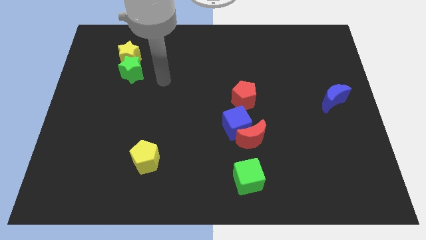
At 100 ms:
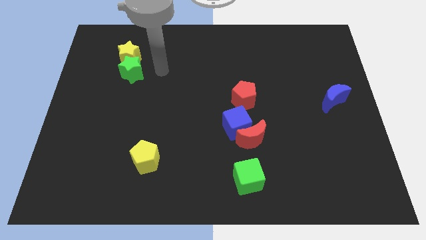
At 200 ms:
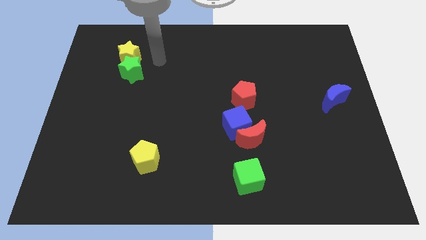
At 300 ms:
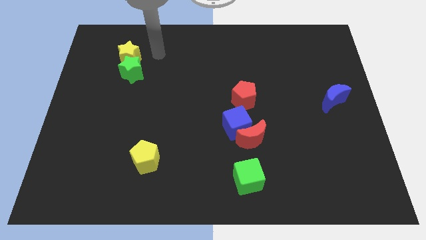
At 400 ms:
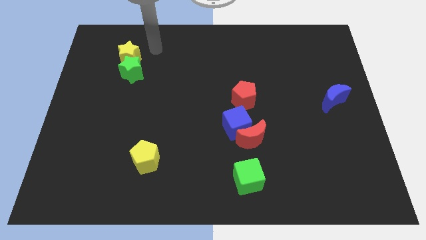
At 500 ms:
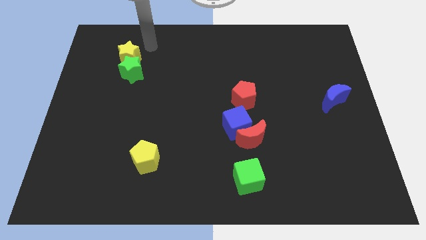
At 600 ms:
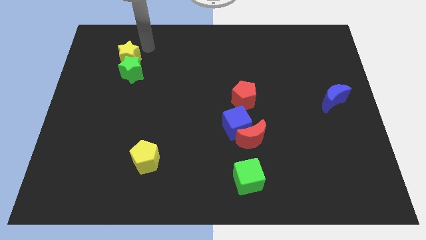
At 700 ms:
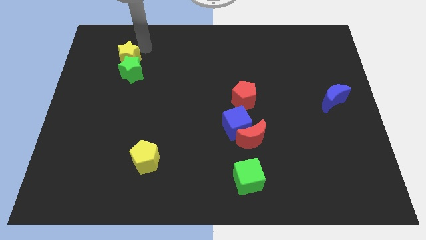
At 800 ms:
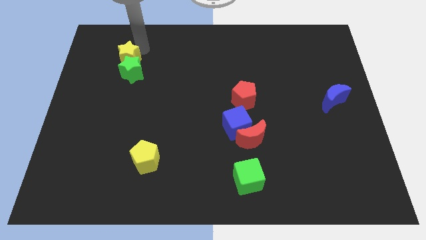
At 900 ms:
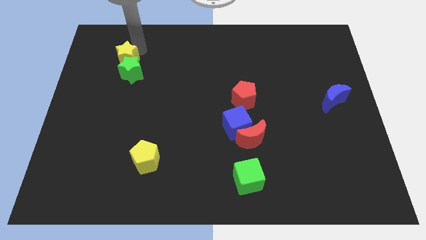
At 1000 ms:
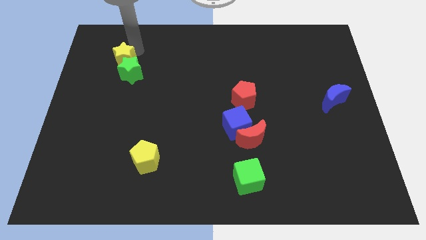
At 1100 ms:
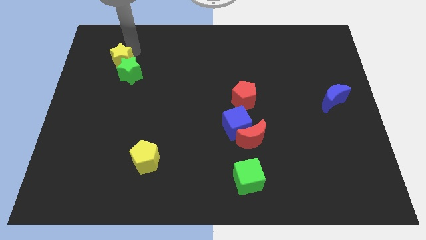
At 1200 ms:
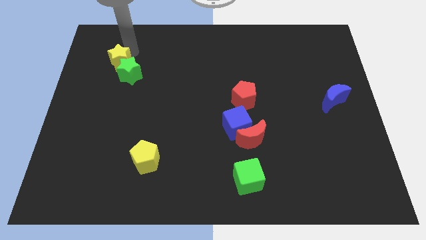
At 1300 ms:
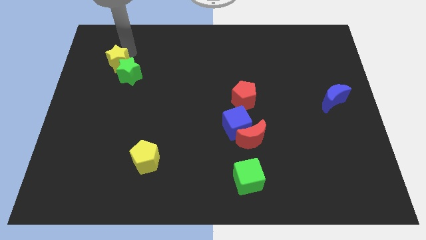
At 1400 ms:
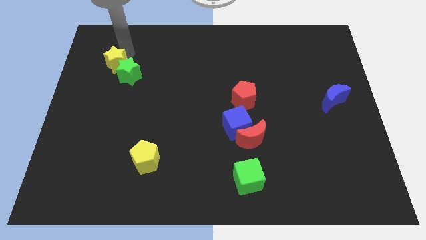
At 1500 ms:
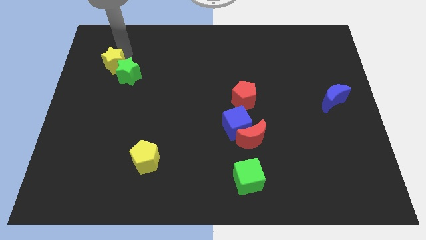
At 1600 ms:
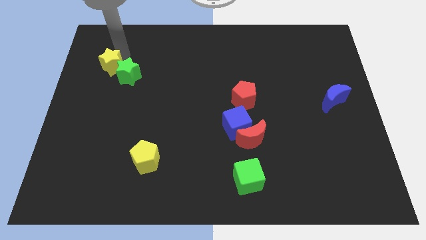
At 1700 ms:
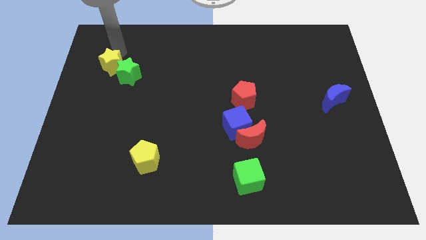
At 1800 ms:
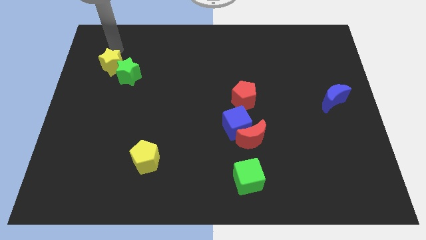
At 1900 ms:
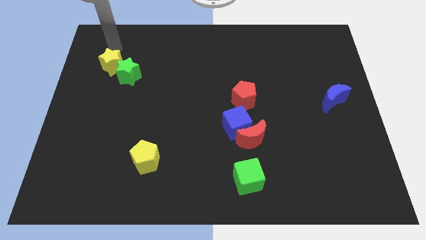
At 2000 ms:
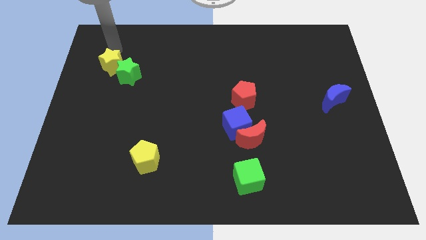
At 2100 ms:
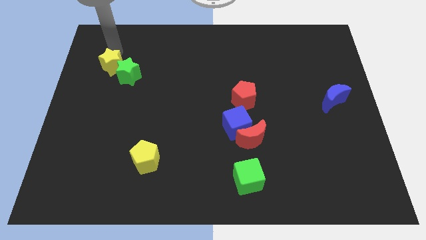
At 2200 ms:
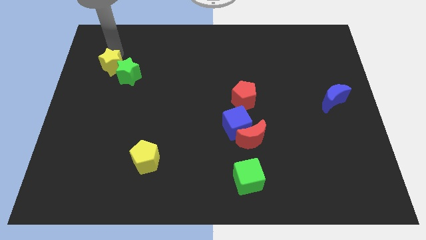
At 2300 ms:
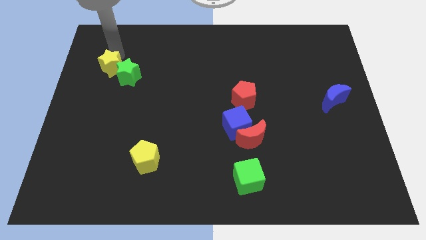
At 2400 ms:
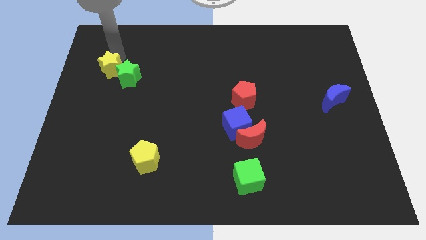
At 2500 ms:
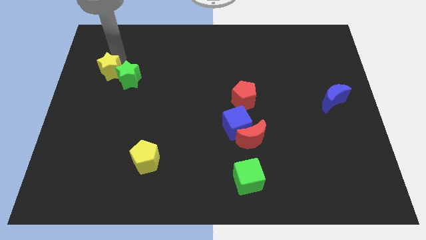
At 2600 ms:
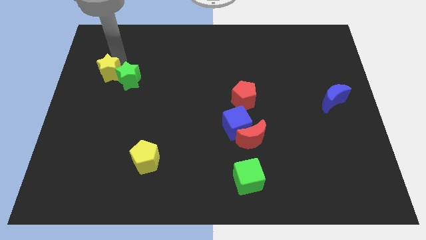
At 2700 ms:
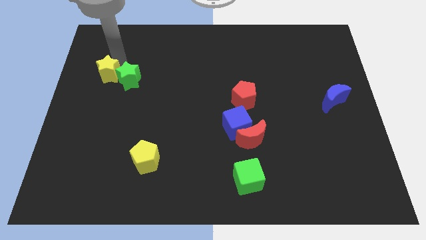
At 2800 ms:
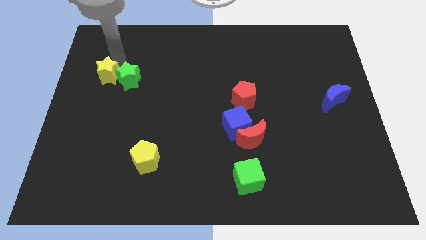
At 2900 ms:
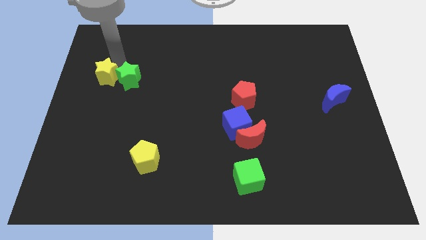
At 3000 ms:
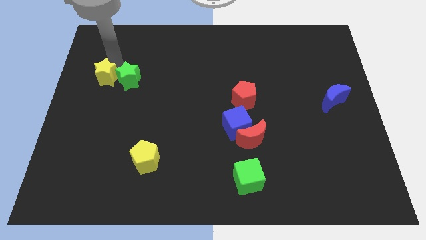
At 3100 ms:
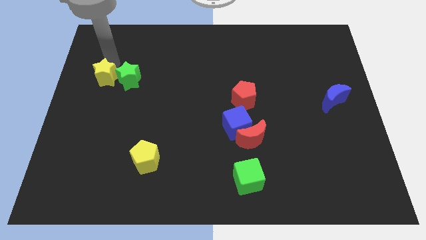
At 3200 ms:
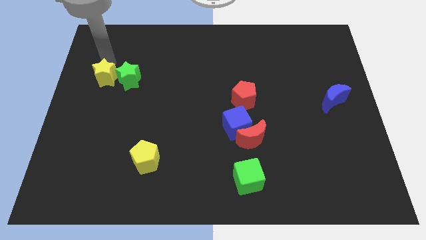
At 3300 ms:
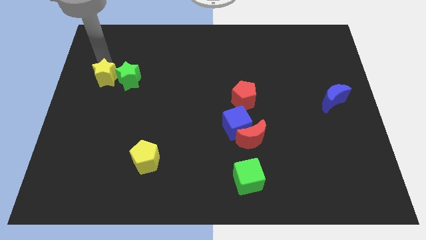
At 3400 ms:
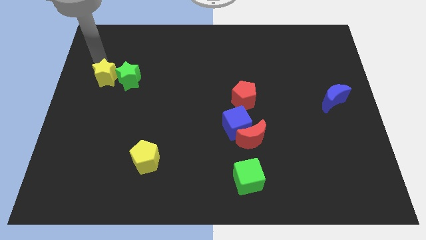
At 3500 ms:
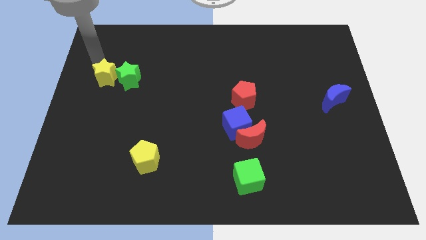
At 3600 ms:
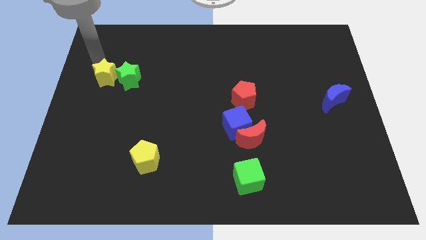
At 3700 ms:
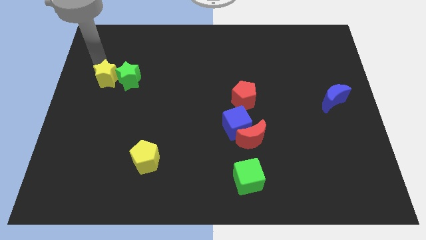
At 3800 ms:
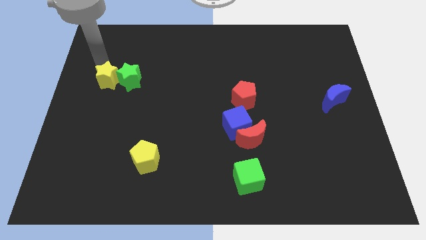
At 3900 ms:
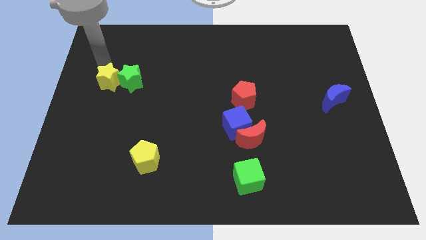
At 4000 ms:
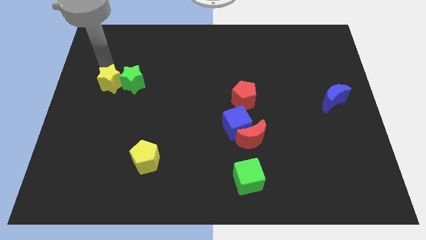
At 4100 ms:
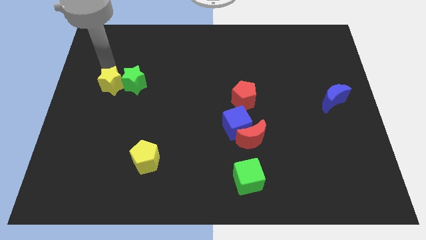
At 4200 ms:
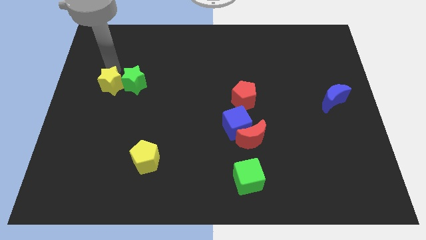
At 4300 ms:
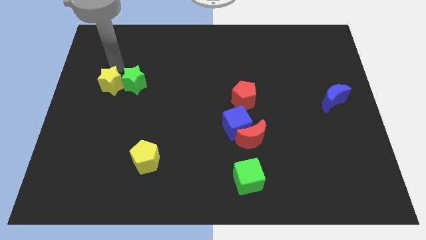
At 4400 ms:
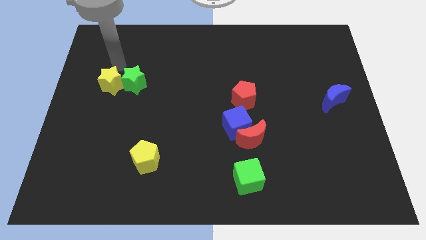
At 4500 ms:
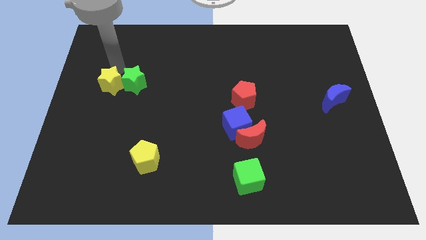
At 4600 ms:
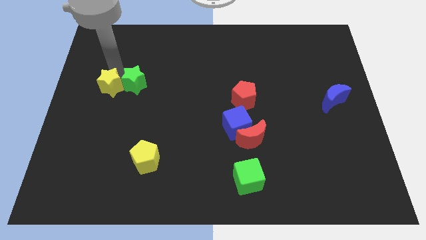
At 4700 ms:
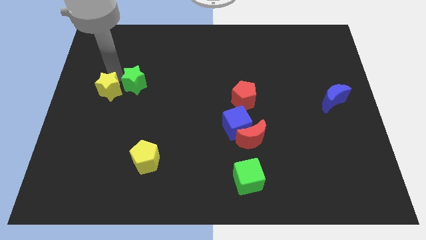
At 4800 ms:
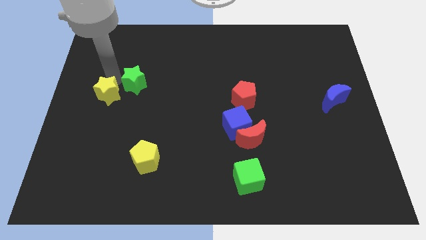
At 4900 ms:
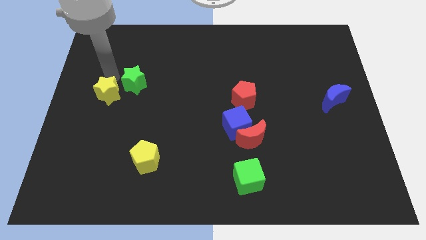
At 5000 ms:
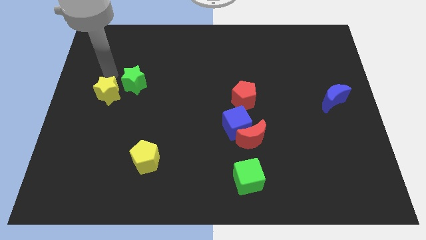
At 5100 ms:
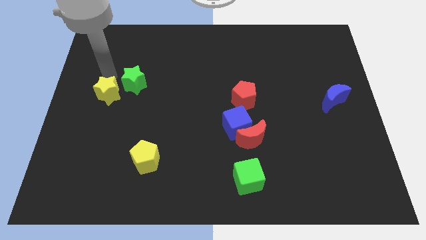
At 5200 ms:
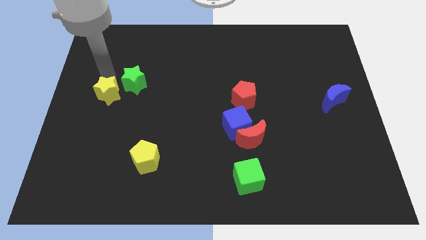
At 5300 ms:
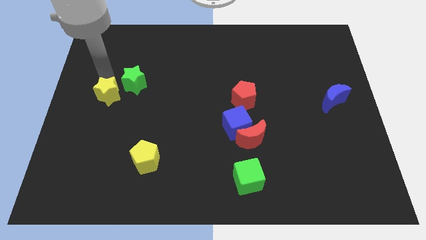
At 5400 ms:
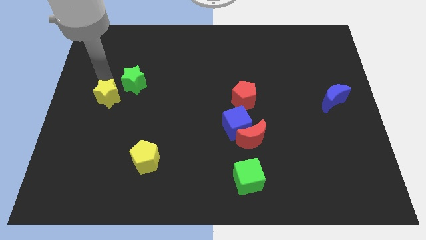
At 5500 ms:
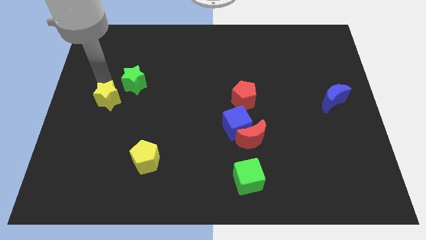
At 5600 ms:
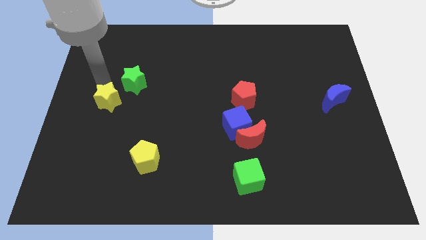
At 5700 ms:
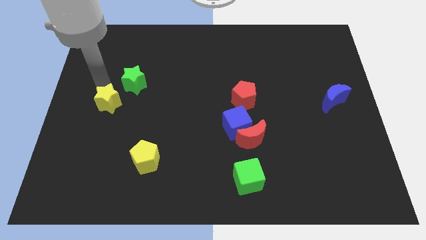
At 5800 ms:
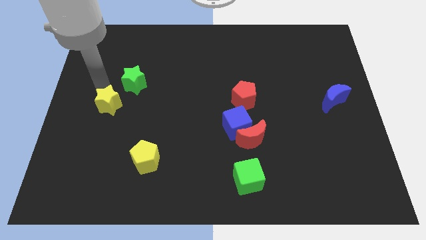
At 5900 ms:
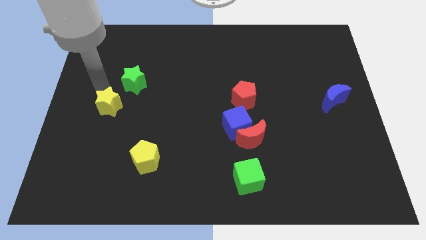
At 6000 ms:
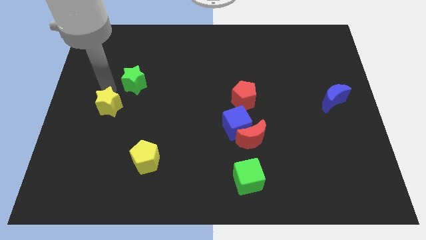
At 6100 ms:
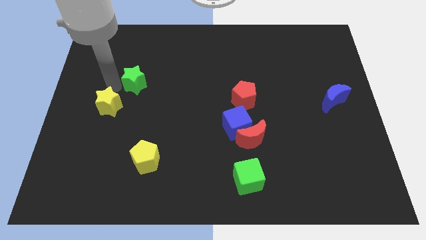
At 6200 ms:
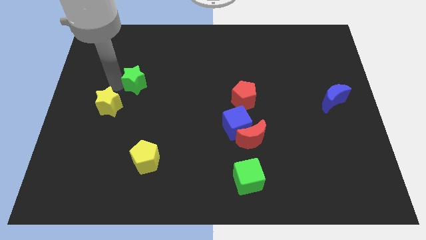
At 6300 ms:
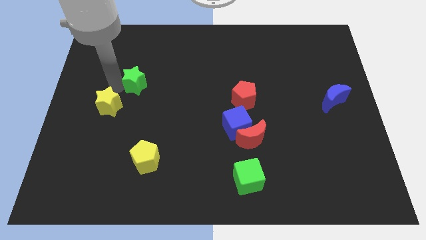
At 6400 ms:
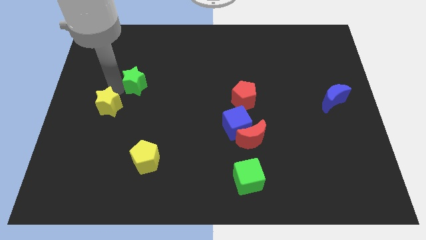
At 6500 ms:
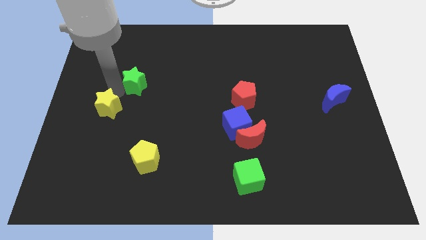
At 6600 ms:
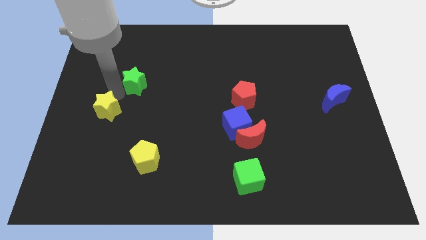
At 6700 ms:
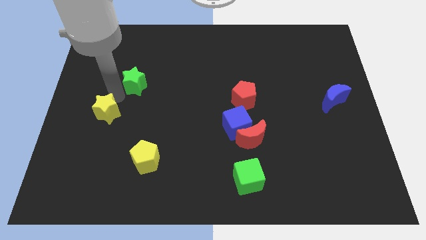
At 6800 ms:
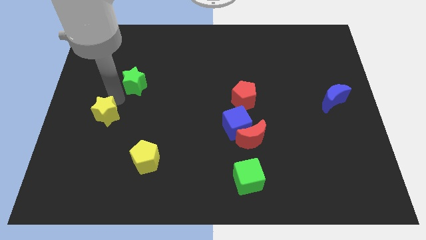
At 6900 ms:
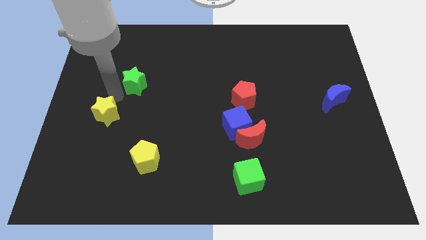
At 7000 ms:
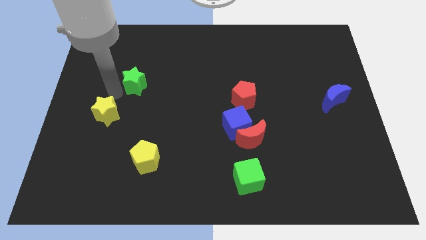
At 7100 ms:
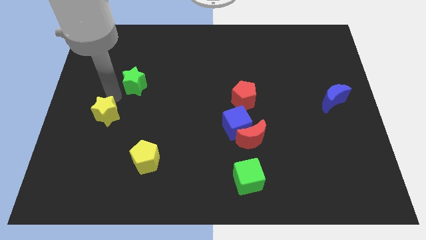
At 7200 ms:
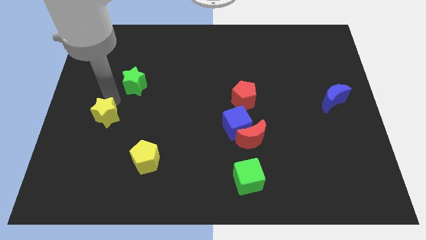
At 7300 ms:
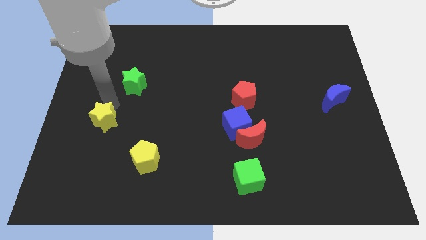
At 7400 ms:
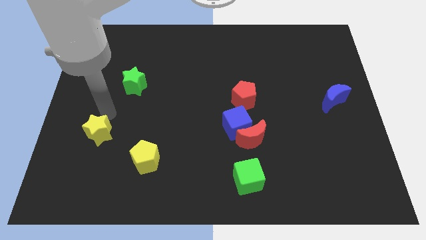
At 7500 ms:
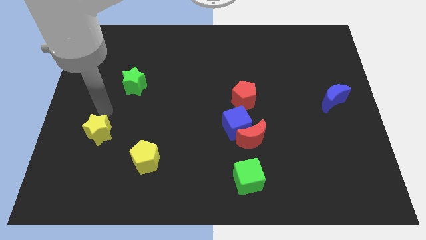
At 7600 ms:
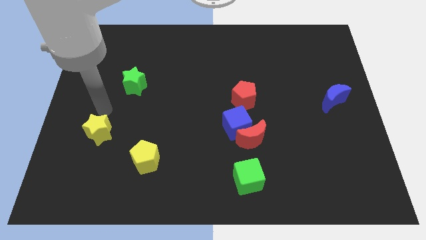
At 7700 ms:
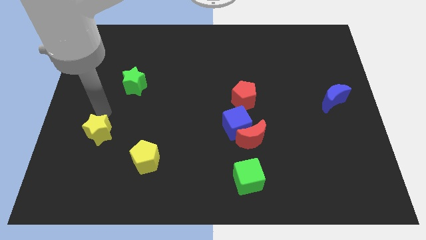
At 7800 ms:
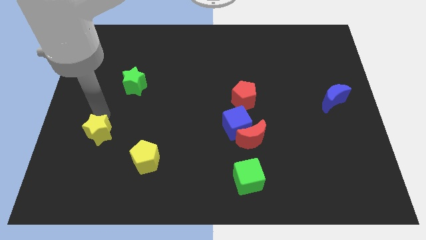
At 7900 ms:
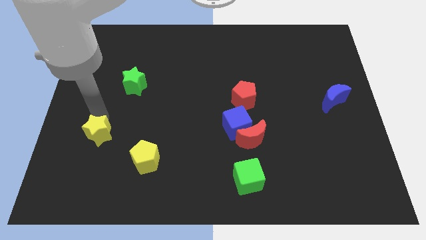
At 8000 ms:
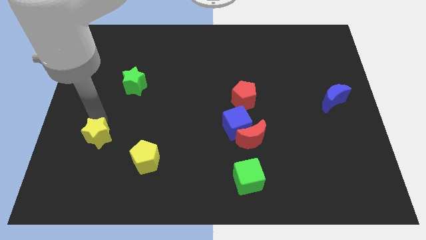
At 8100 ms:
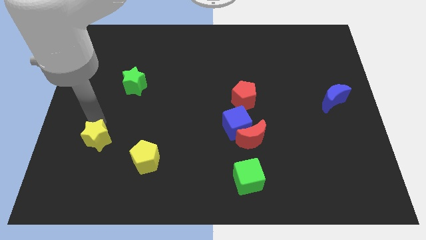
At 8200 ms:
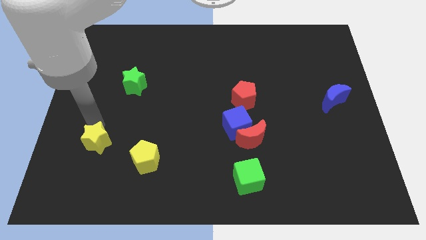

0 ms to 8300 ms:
slide the yellow star just left of the yellow pentagon
